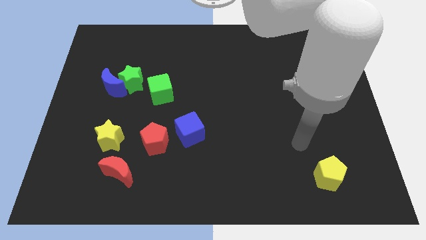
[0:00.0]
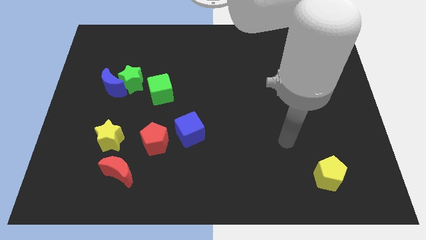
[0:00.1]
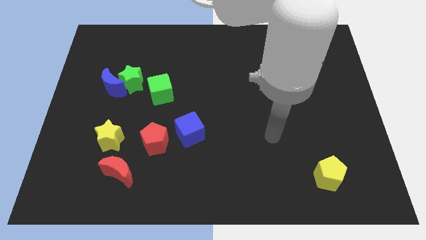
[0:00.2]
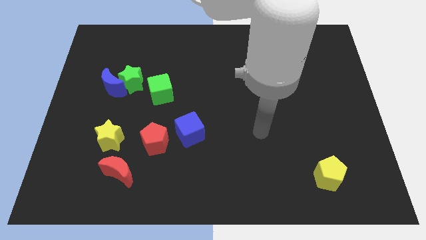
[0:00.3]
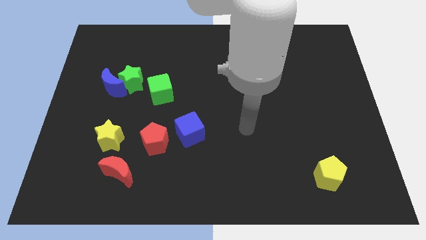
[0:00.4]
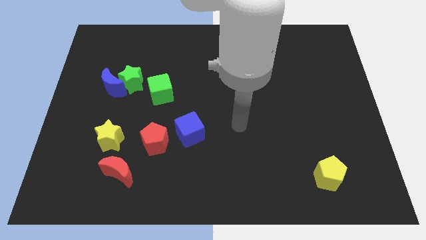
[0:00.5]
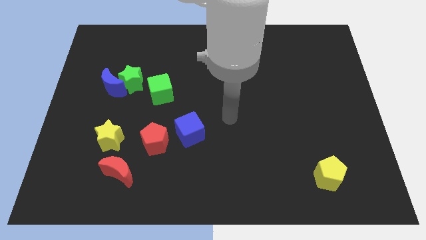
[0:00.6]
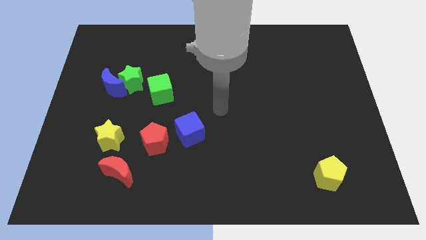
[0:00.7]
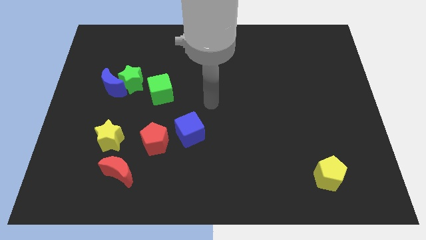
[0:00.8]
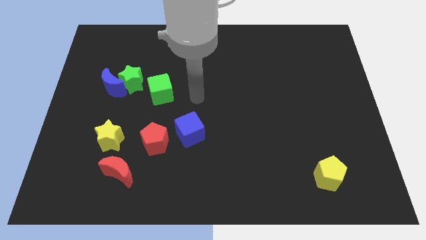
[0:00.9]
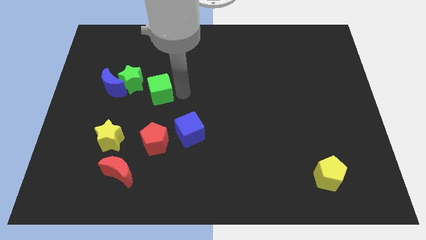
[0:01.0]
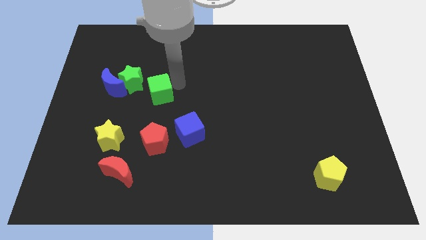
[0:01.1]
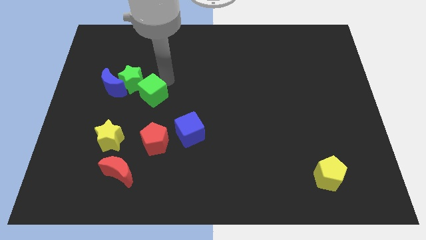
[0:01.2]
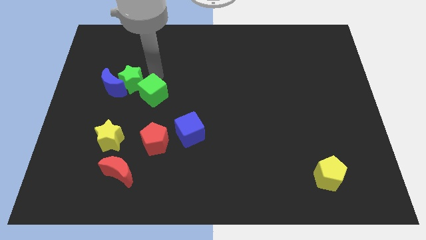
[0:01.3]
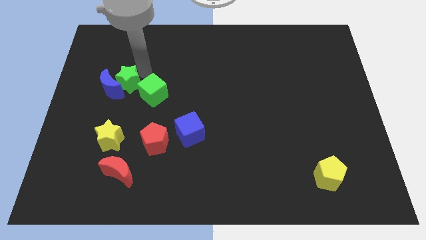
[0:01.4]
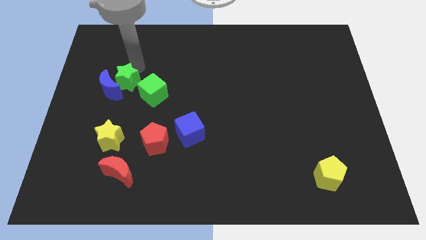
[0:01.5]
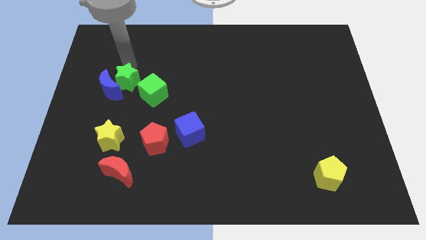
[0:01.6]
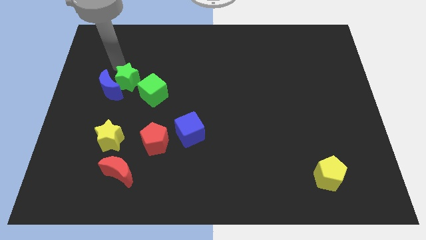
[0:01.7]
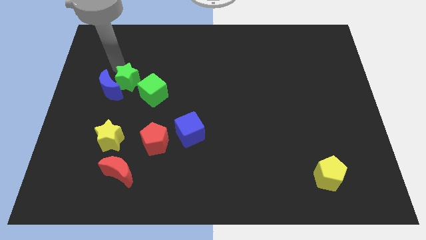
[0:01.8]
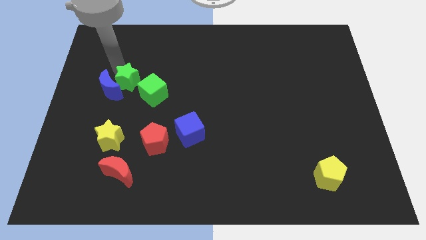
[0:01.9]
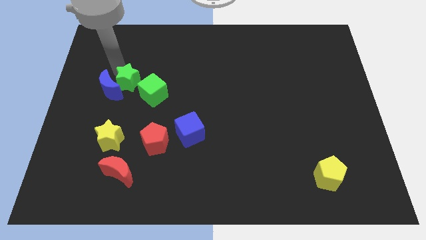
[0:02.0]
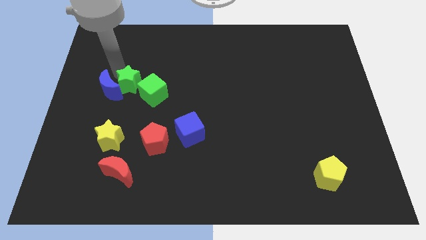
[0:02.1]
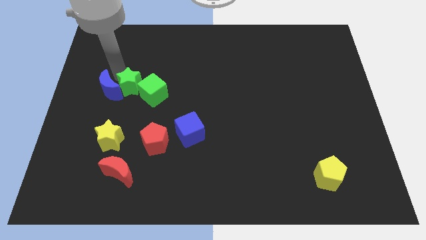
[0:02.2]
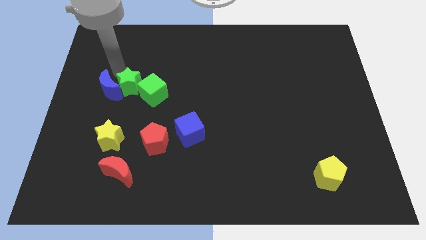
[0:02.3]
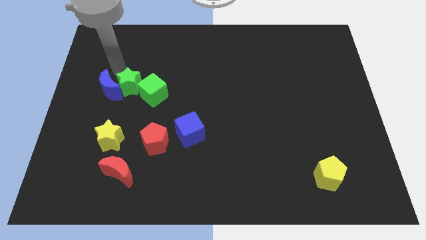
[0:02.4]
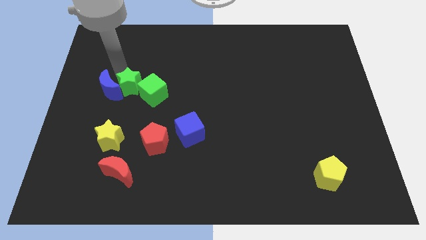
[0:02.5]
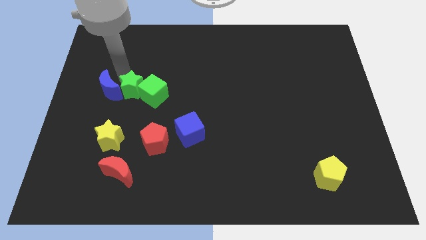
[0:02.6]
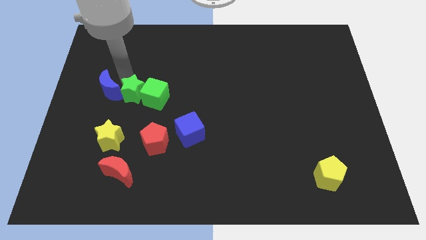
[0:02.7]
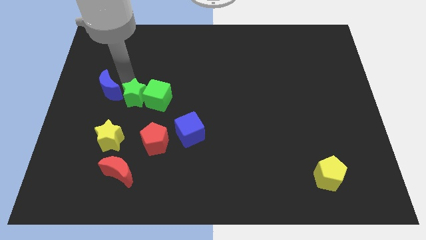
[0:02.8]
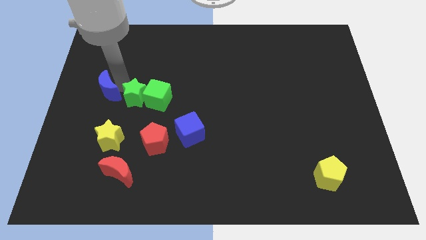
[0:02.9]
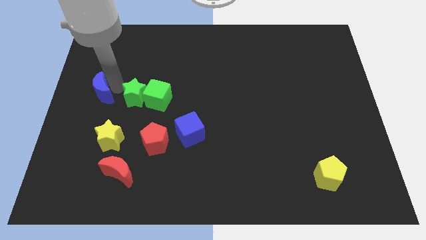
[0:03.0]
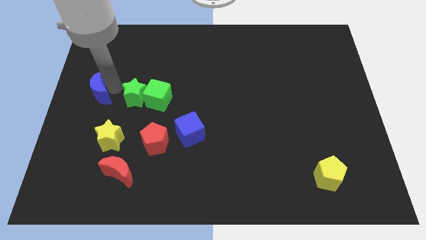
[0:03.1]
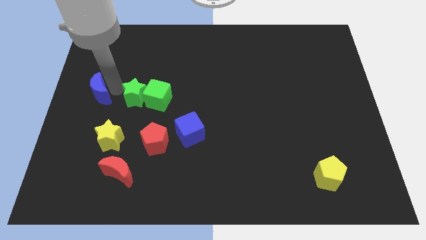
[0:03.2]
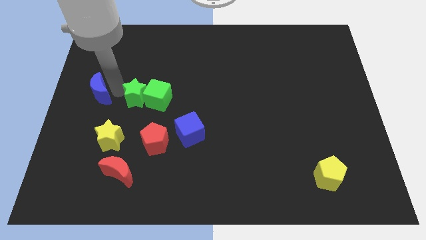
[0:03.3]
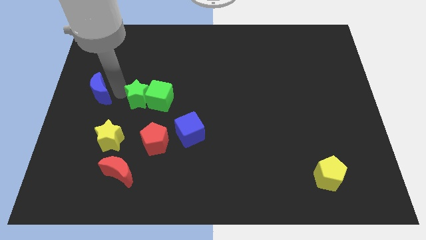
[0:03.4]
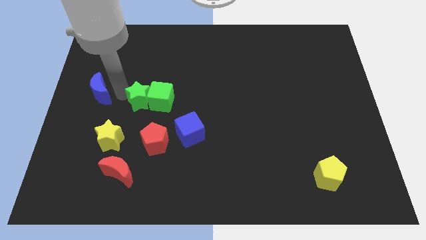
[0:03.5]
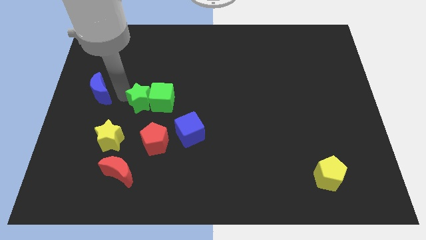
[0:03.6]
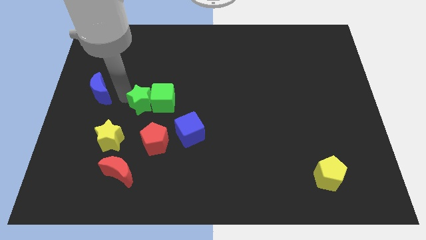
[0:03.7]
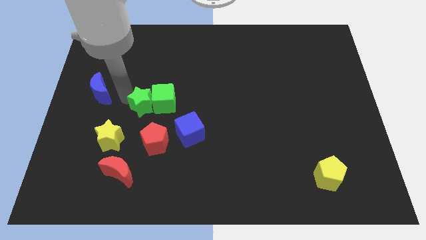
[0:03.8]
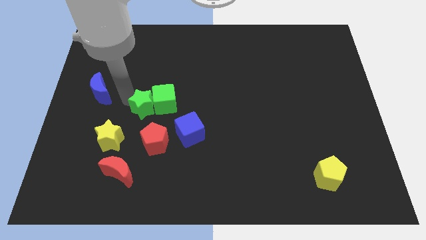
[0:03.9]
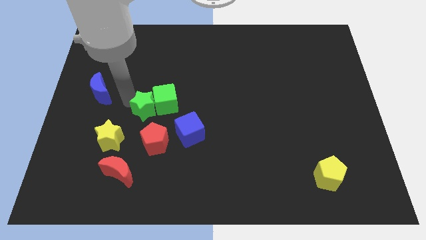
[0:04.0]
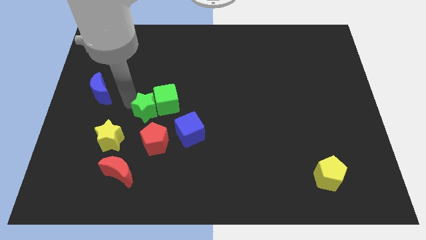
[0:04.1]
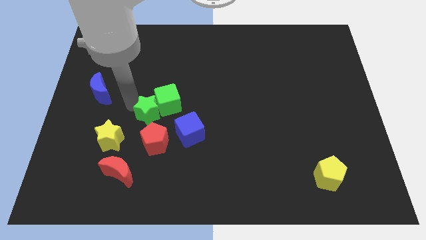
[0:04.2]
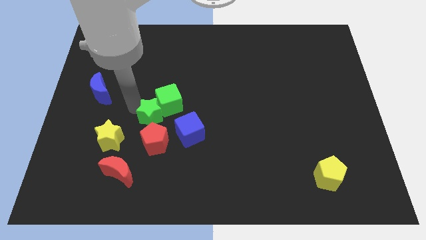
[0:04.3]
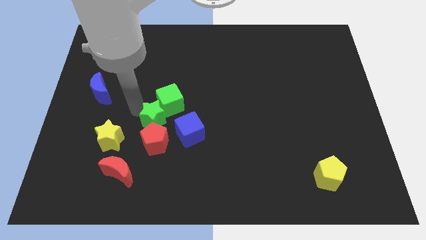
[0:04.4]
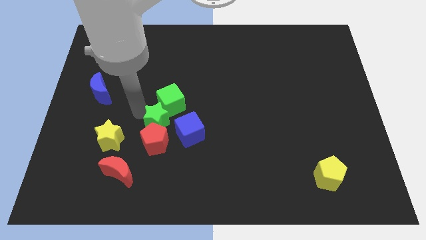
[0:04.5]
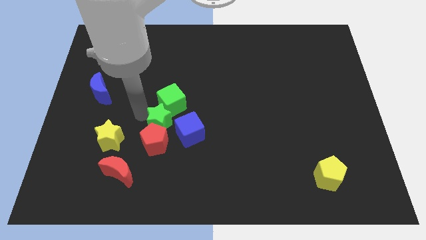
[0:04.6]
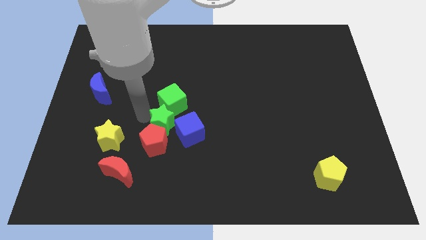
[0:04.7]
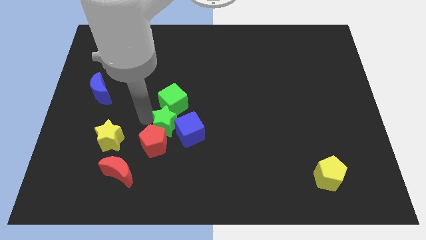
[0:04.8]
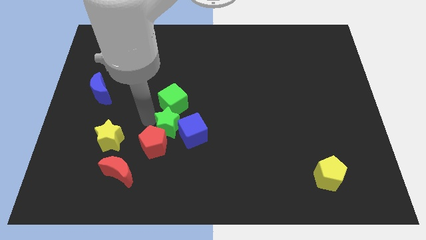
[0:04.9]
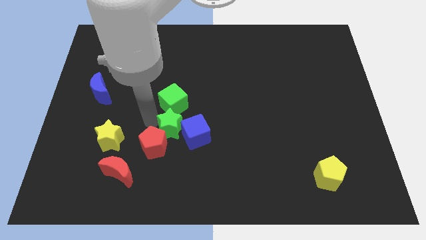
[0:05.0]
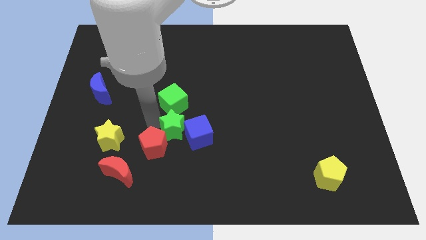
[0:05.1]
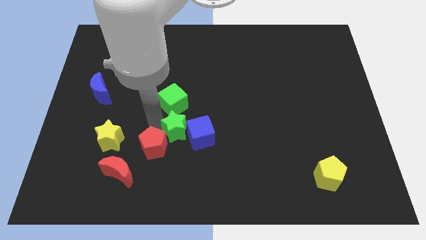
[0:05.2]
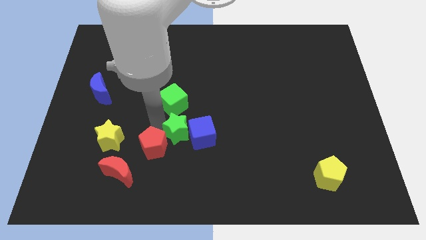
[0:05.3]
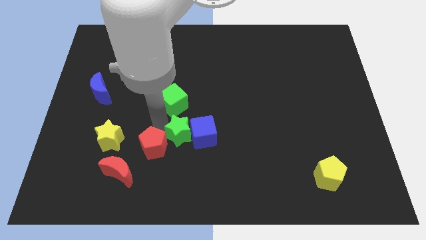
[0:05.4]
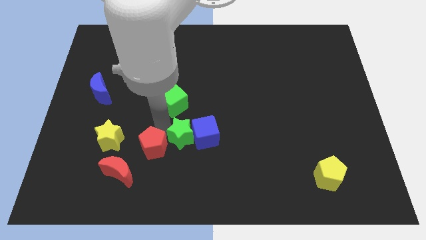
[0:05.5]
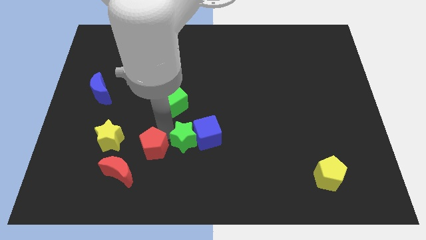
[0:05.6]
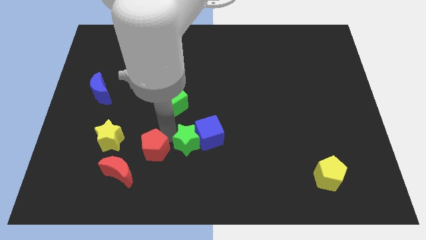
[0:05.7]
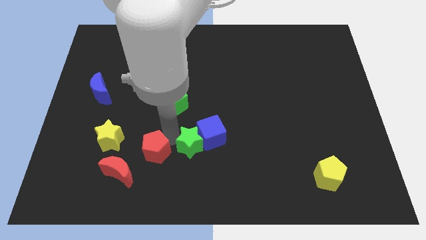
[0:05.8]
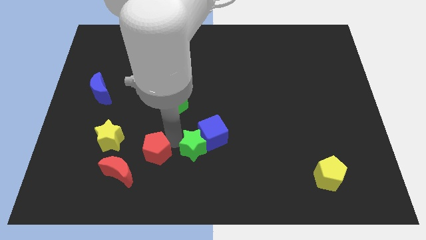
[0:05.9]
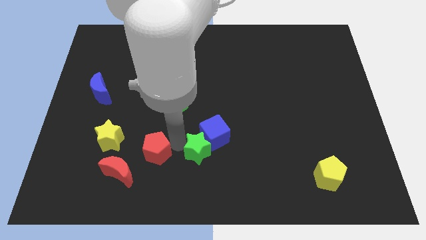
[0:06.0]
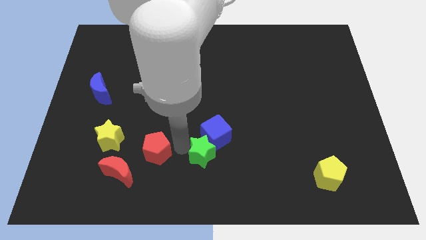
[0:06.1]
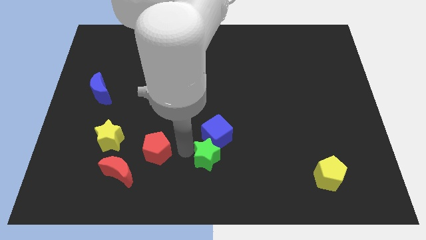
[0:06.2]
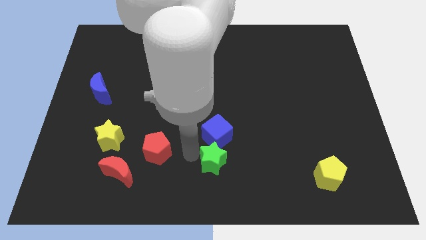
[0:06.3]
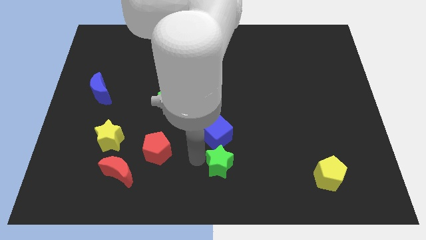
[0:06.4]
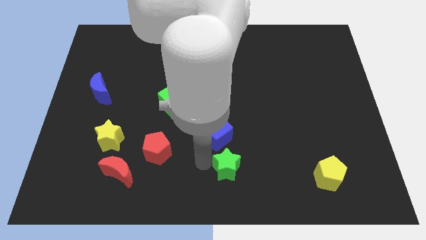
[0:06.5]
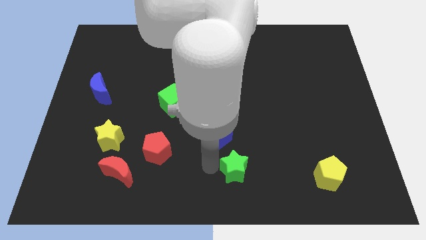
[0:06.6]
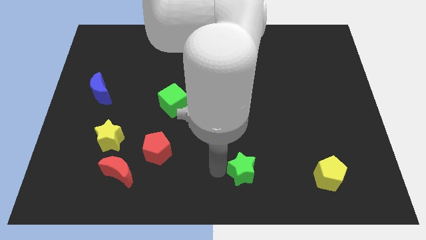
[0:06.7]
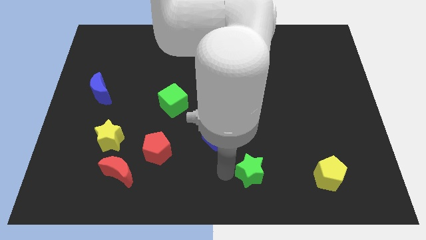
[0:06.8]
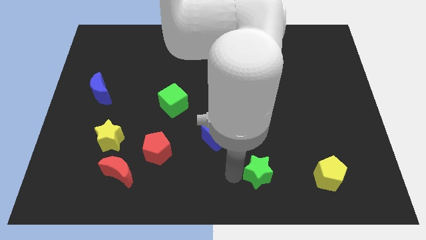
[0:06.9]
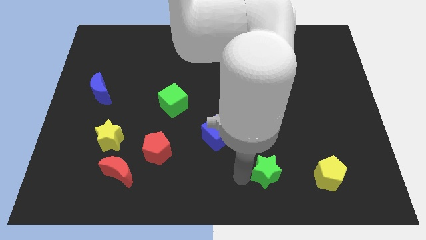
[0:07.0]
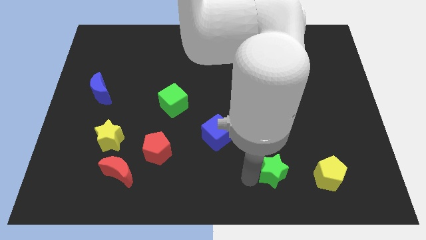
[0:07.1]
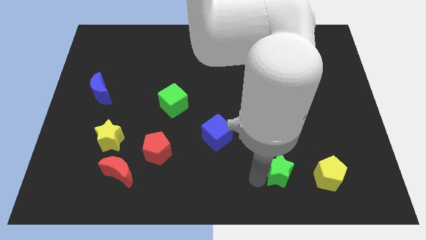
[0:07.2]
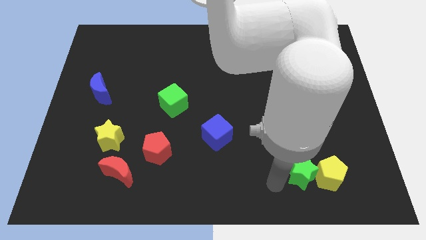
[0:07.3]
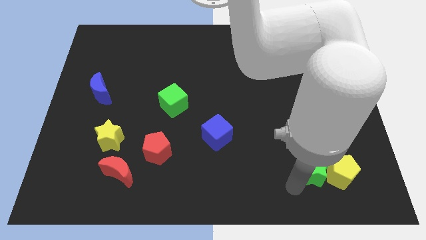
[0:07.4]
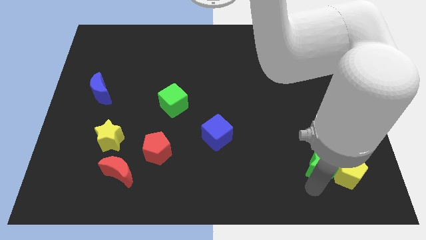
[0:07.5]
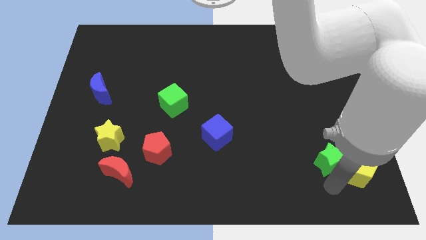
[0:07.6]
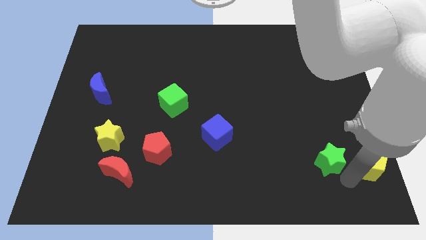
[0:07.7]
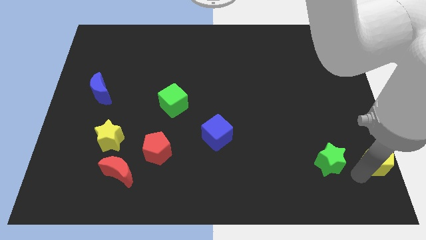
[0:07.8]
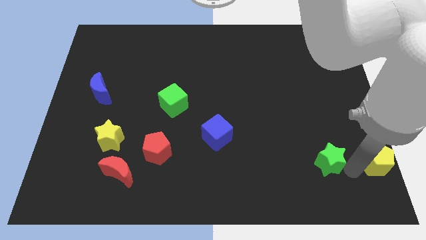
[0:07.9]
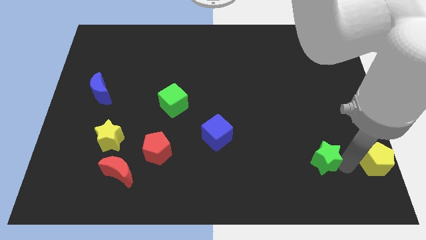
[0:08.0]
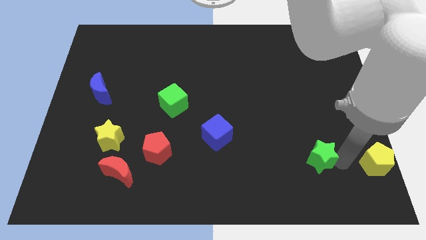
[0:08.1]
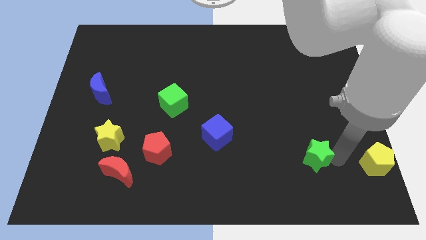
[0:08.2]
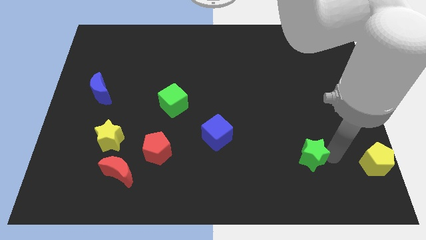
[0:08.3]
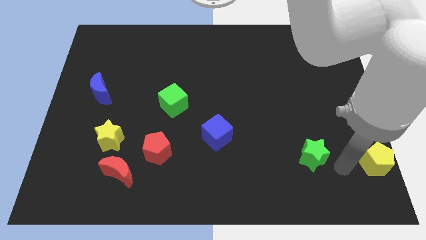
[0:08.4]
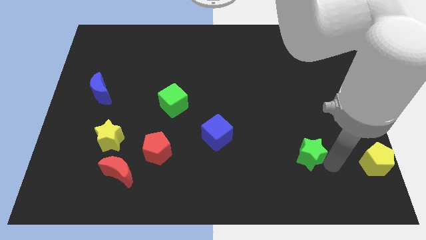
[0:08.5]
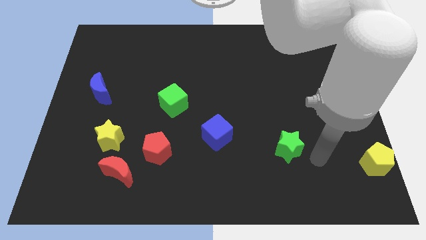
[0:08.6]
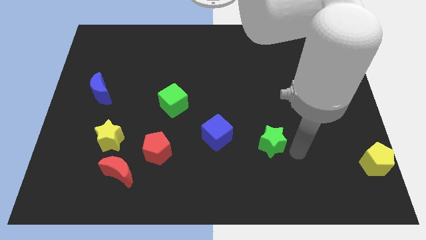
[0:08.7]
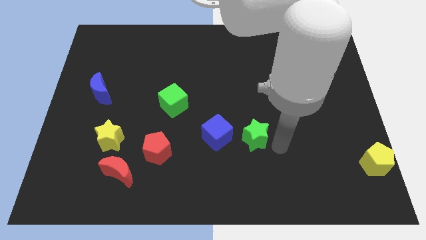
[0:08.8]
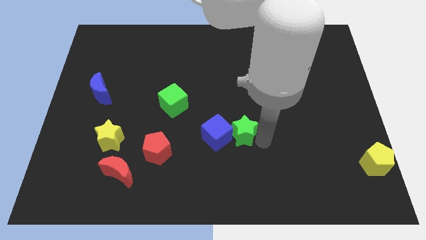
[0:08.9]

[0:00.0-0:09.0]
push the green star to the top right of the blue cube
